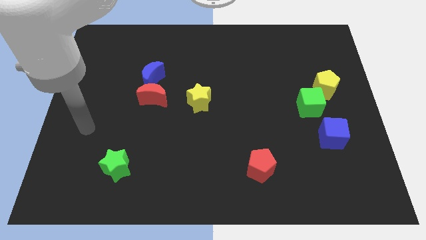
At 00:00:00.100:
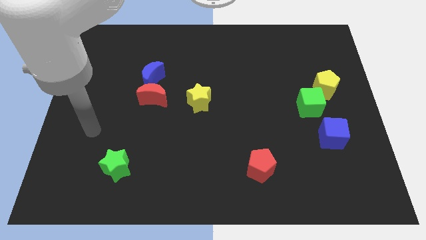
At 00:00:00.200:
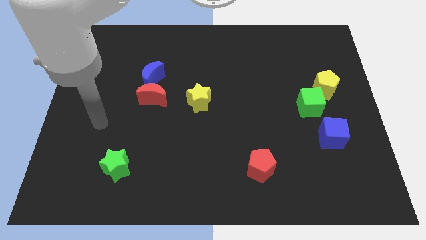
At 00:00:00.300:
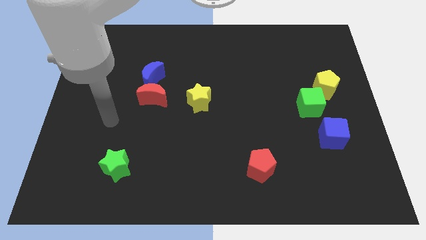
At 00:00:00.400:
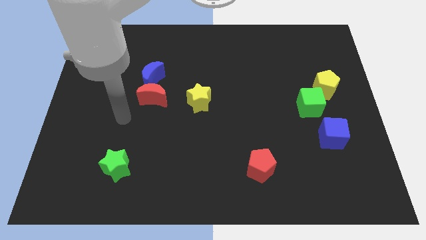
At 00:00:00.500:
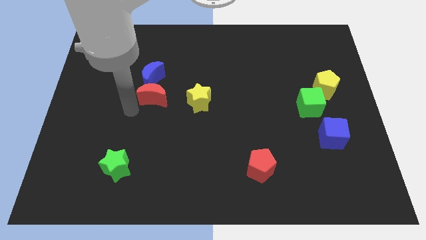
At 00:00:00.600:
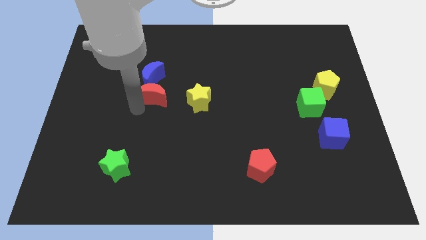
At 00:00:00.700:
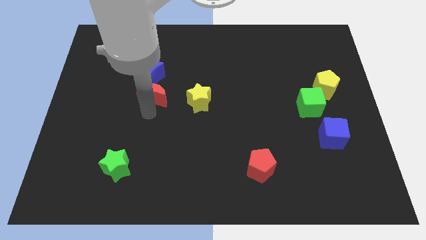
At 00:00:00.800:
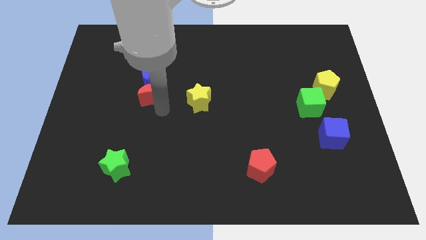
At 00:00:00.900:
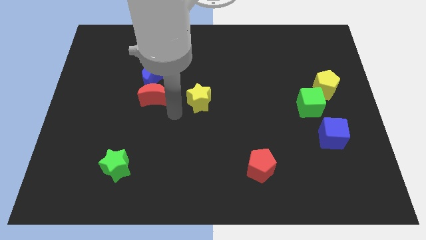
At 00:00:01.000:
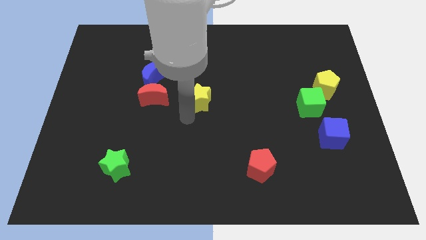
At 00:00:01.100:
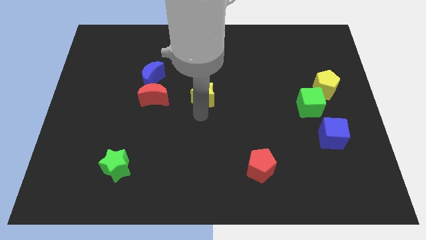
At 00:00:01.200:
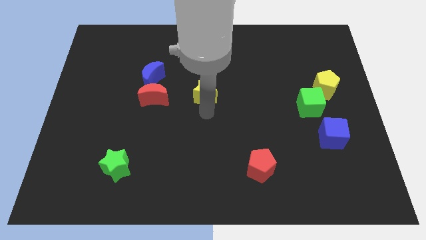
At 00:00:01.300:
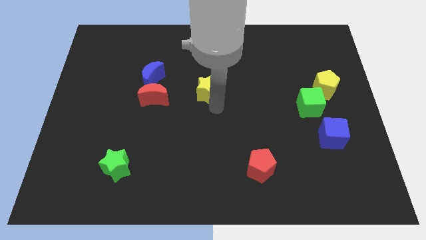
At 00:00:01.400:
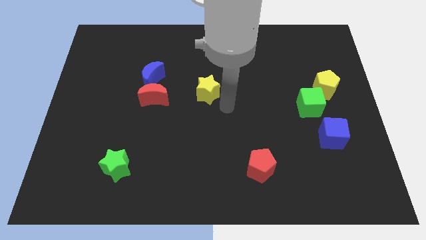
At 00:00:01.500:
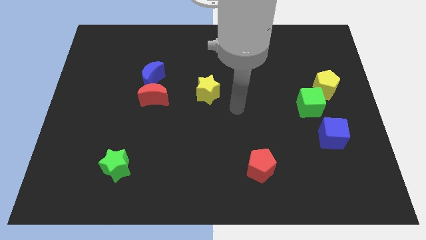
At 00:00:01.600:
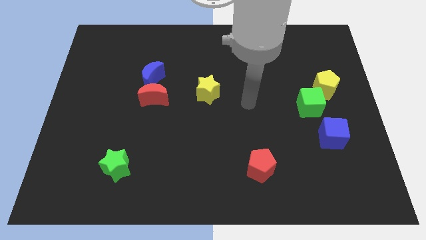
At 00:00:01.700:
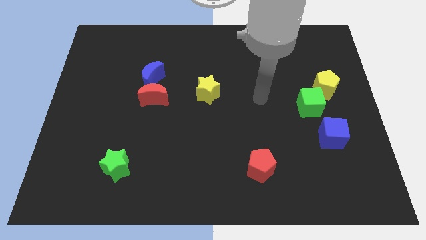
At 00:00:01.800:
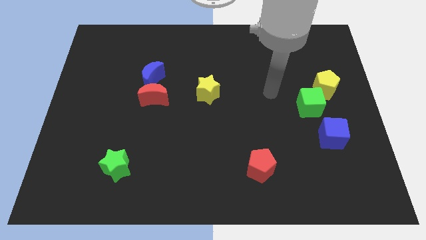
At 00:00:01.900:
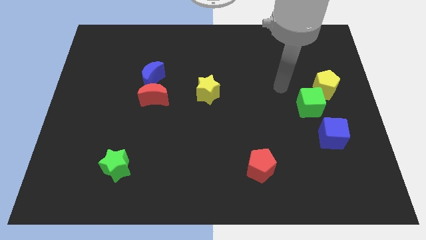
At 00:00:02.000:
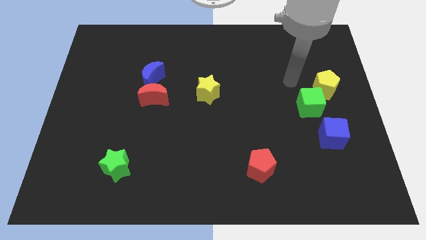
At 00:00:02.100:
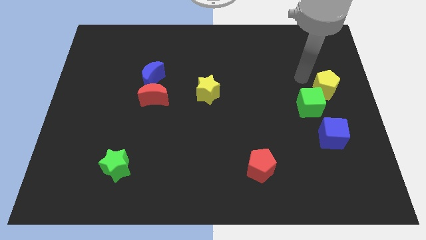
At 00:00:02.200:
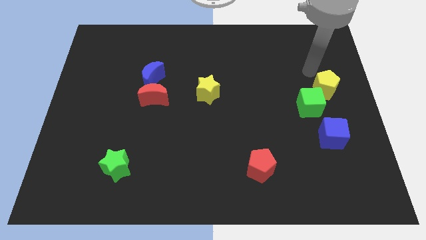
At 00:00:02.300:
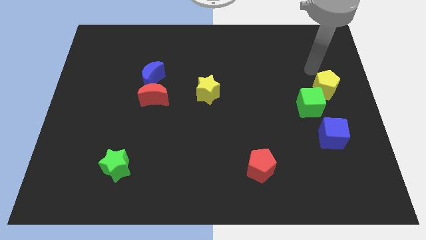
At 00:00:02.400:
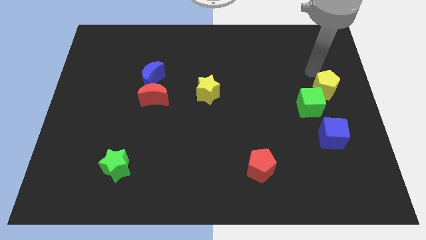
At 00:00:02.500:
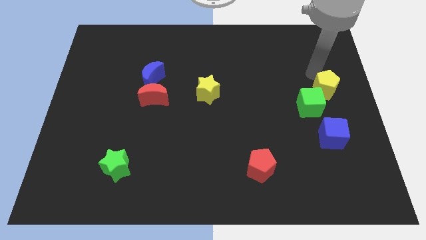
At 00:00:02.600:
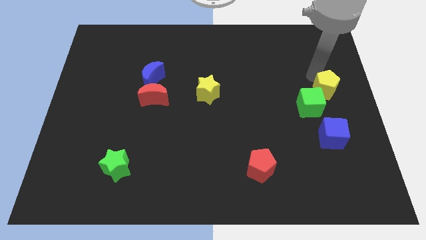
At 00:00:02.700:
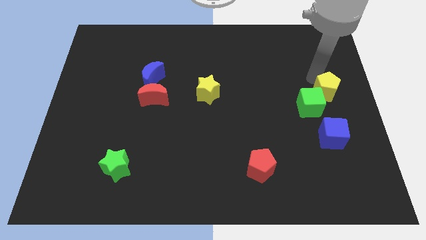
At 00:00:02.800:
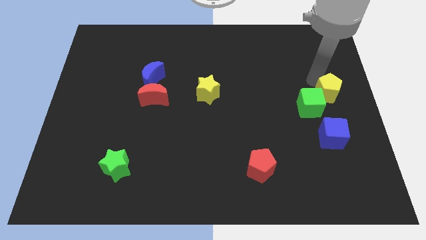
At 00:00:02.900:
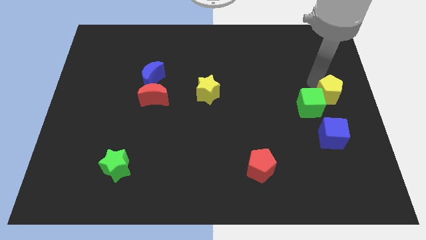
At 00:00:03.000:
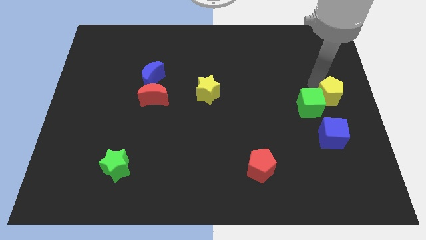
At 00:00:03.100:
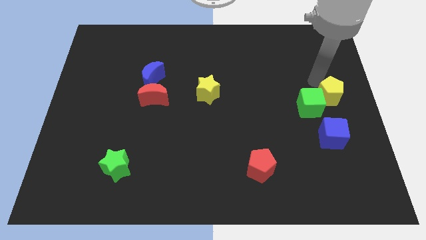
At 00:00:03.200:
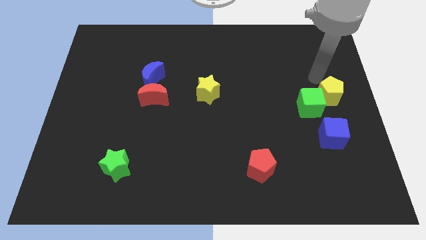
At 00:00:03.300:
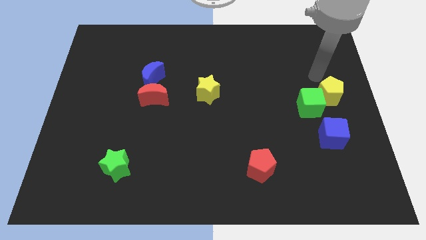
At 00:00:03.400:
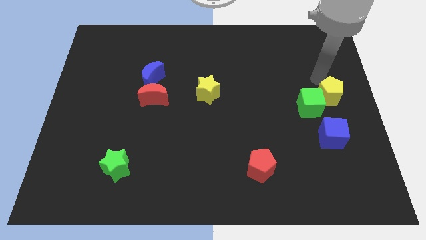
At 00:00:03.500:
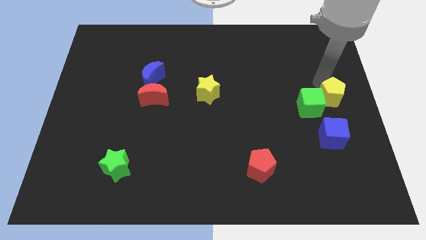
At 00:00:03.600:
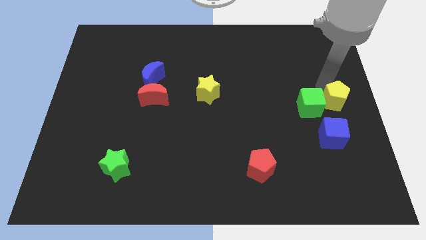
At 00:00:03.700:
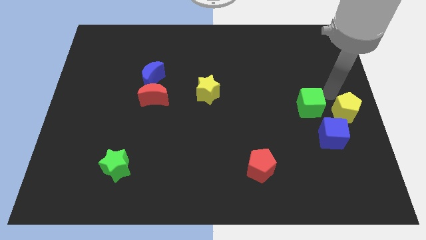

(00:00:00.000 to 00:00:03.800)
move the yellow pentagon downwards slightly

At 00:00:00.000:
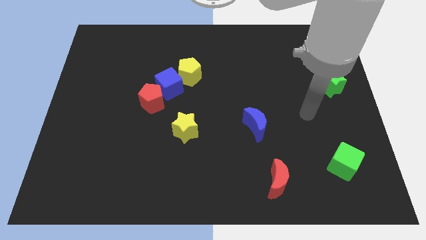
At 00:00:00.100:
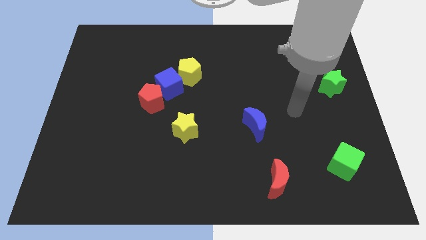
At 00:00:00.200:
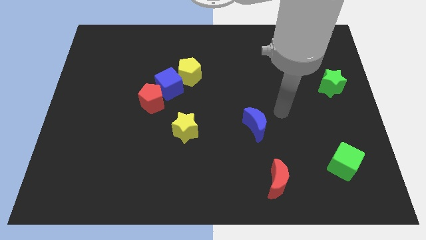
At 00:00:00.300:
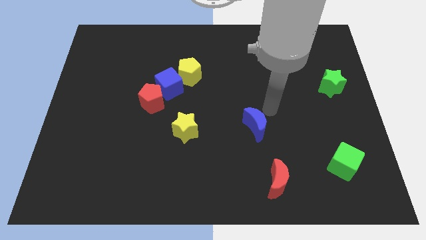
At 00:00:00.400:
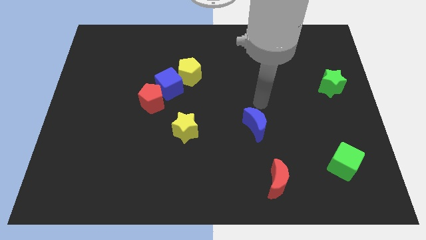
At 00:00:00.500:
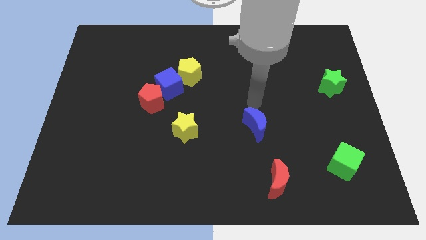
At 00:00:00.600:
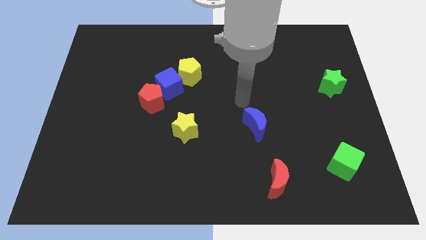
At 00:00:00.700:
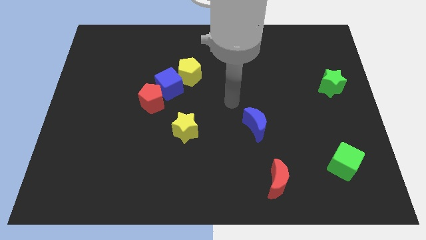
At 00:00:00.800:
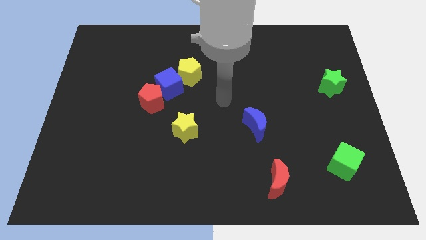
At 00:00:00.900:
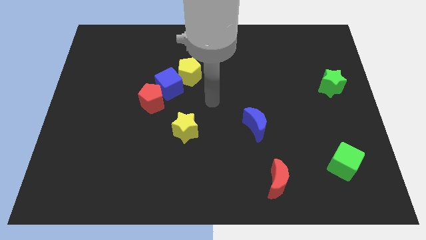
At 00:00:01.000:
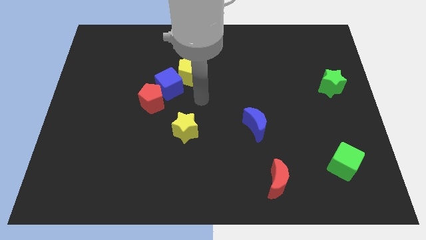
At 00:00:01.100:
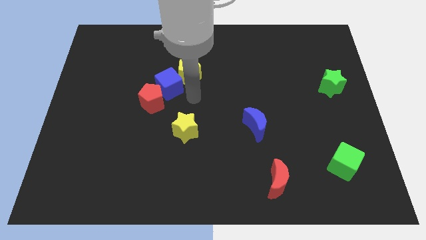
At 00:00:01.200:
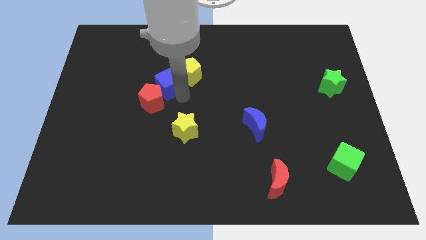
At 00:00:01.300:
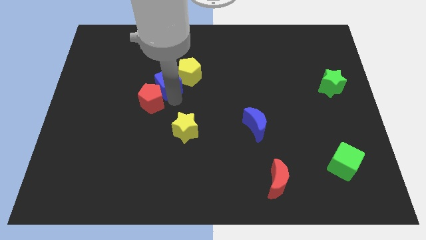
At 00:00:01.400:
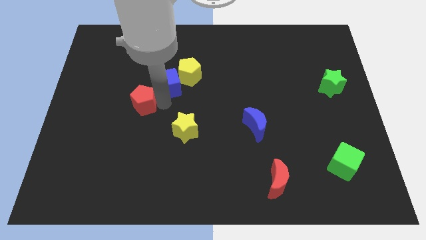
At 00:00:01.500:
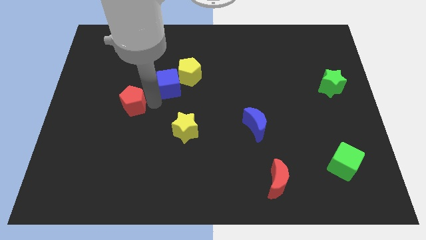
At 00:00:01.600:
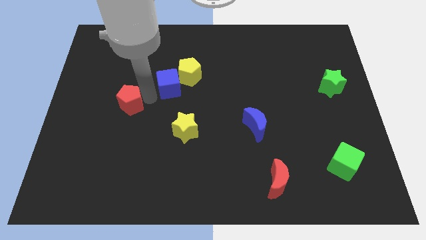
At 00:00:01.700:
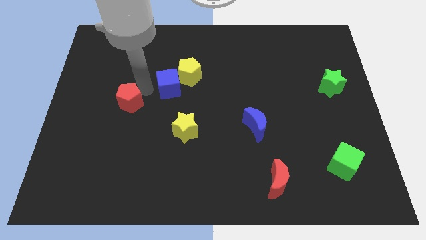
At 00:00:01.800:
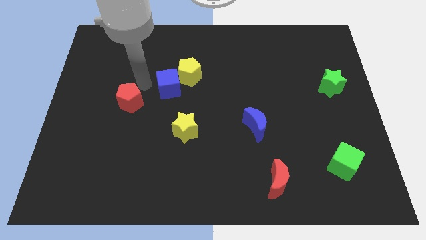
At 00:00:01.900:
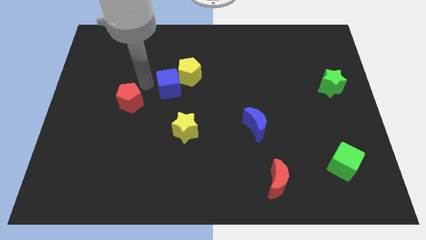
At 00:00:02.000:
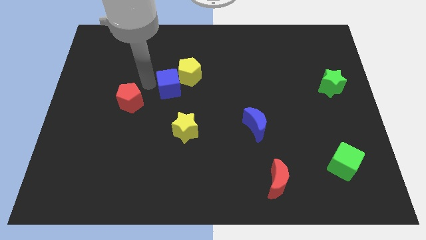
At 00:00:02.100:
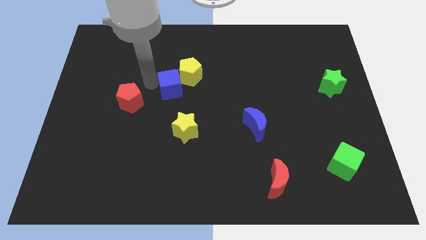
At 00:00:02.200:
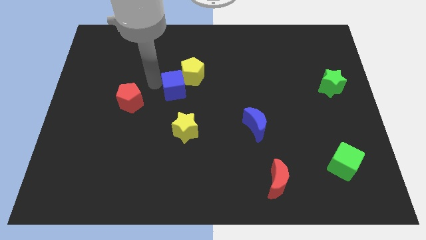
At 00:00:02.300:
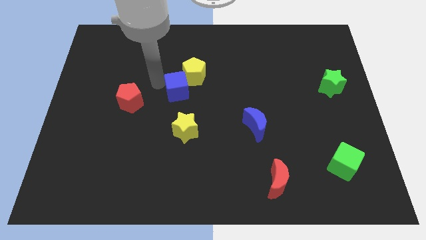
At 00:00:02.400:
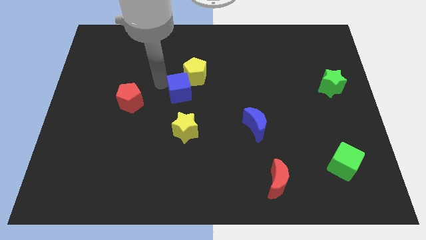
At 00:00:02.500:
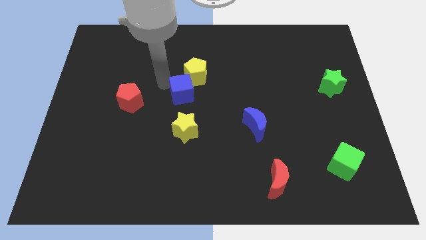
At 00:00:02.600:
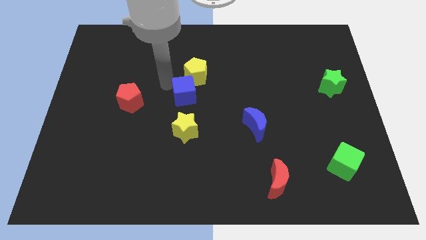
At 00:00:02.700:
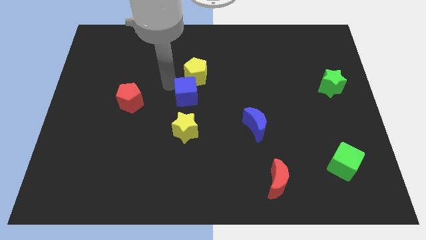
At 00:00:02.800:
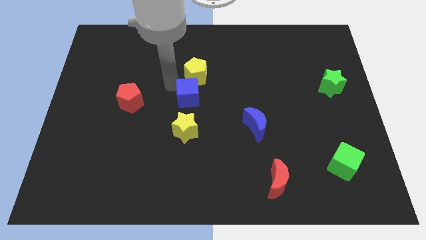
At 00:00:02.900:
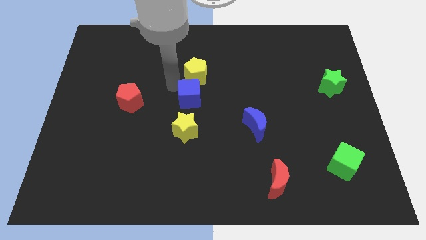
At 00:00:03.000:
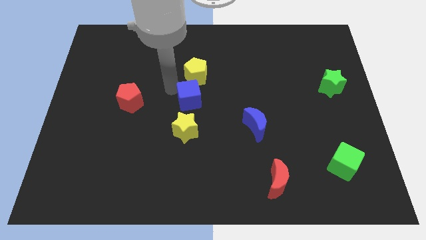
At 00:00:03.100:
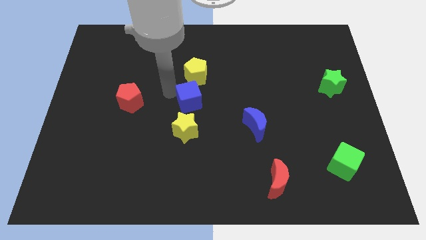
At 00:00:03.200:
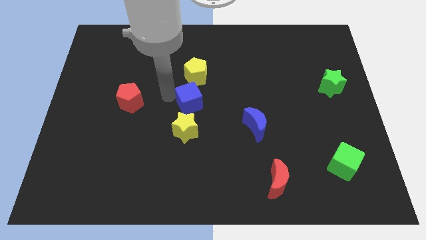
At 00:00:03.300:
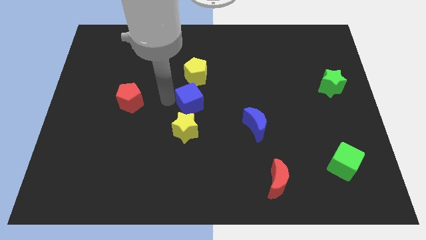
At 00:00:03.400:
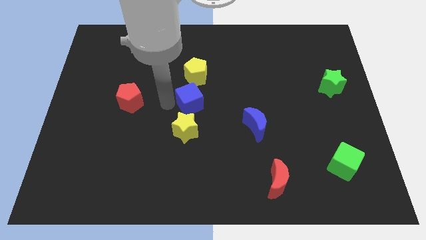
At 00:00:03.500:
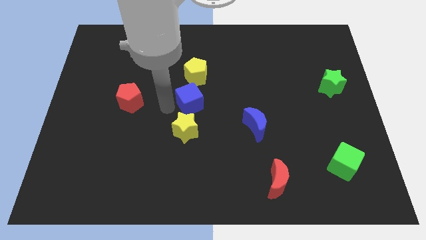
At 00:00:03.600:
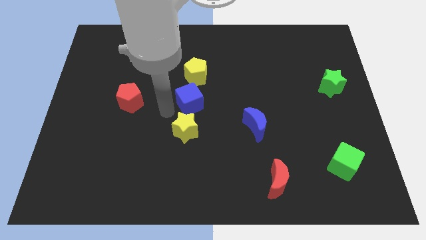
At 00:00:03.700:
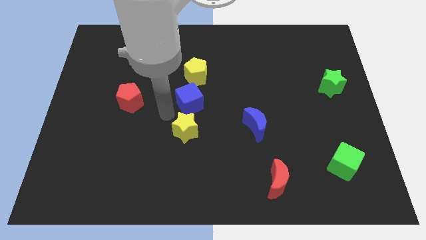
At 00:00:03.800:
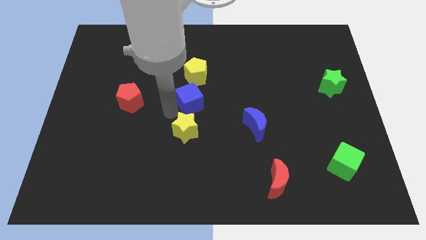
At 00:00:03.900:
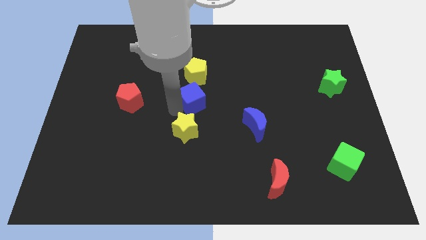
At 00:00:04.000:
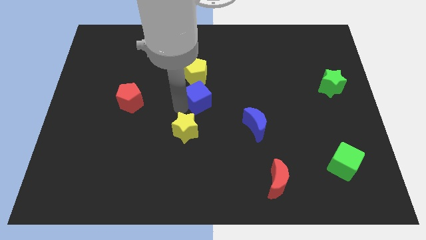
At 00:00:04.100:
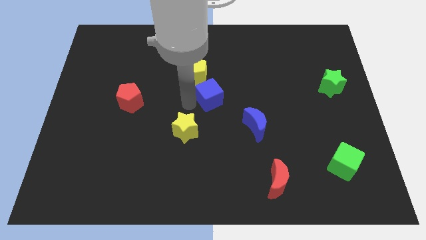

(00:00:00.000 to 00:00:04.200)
push the blue cube to the right a little
